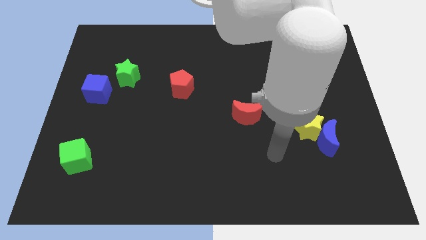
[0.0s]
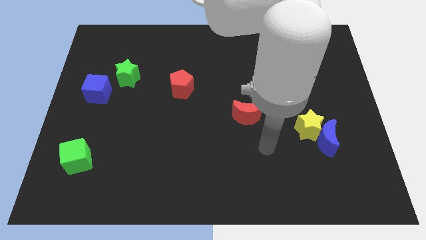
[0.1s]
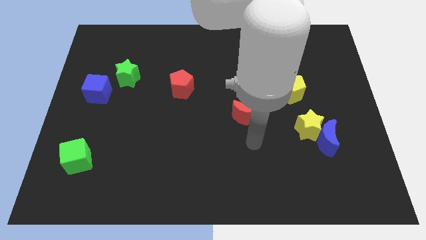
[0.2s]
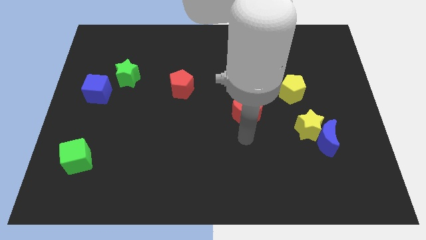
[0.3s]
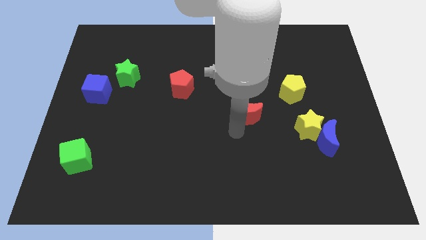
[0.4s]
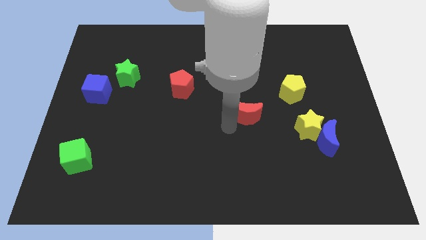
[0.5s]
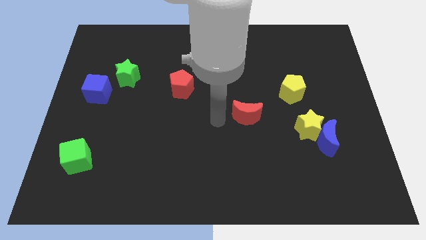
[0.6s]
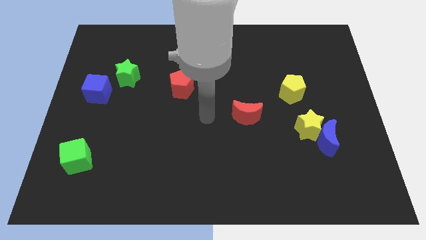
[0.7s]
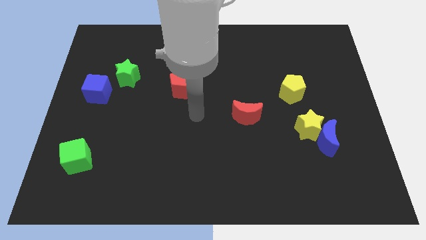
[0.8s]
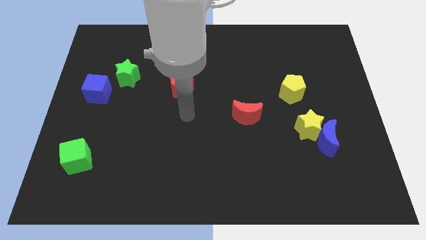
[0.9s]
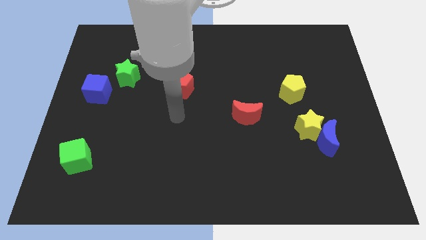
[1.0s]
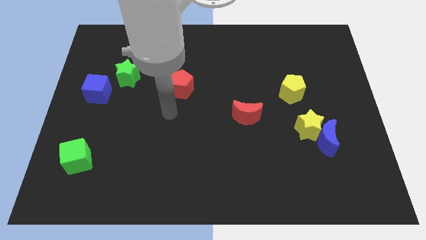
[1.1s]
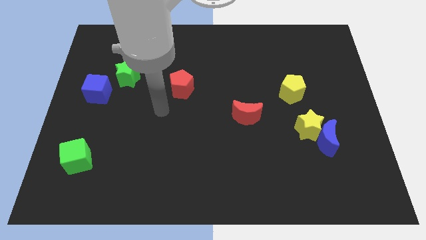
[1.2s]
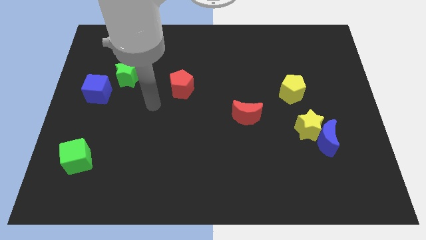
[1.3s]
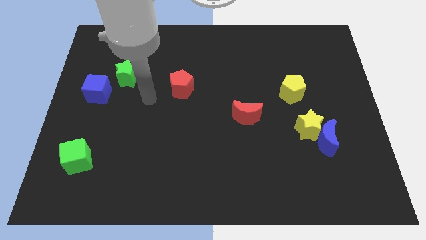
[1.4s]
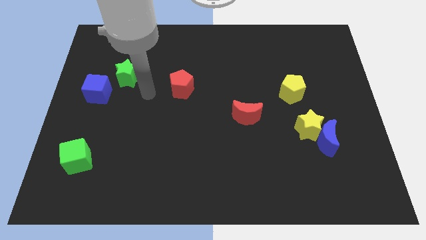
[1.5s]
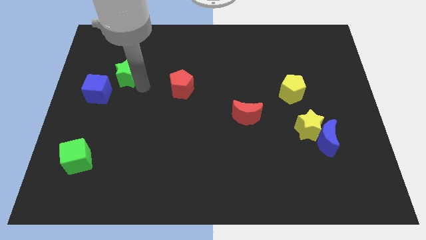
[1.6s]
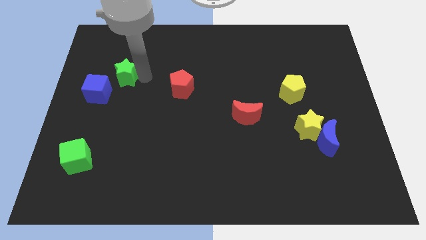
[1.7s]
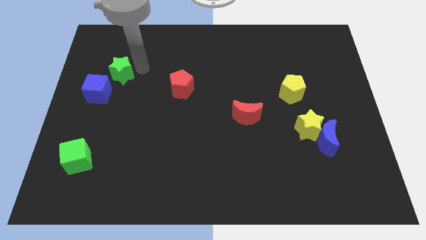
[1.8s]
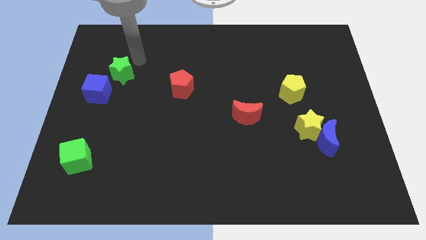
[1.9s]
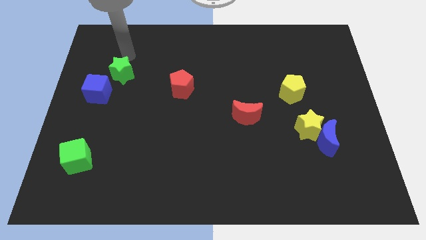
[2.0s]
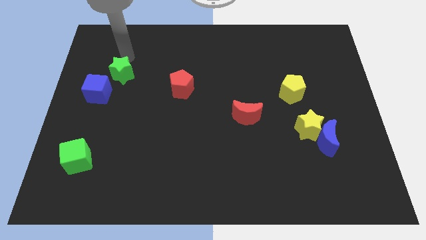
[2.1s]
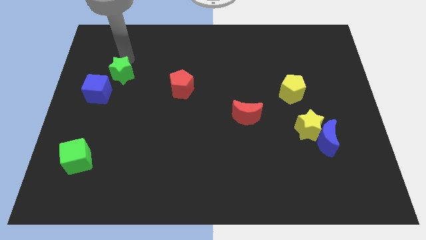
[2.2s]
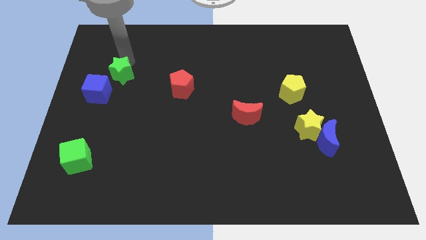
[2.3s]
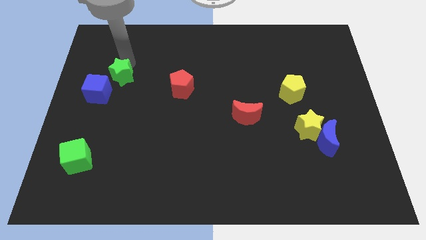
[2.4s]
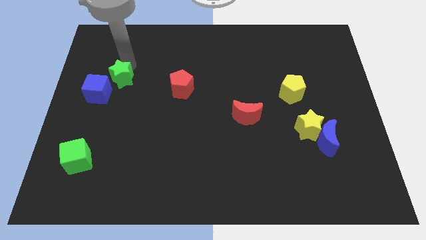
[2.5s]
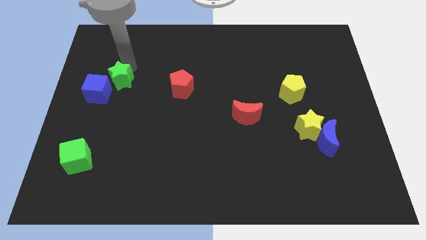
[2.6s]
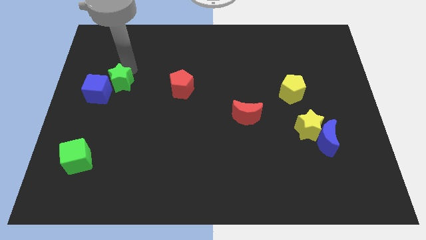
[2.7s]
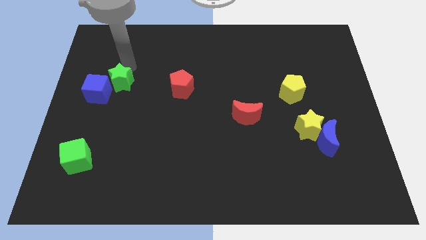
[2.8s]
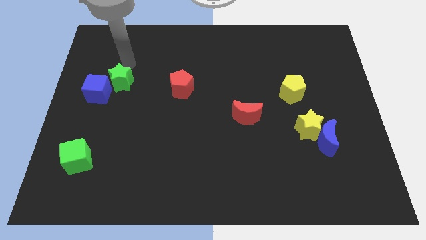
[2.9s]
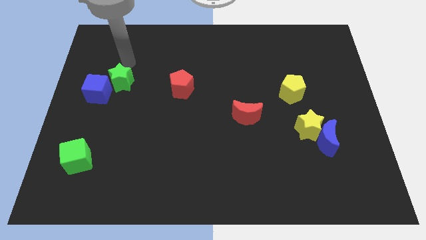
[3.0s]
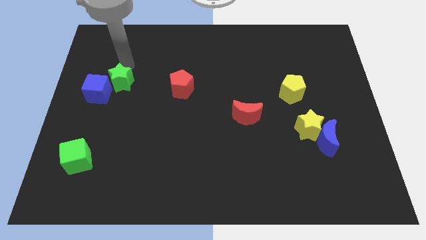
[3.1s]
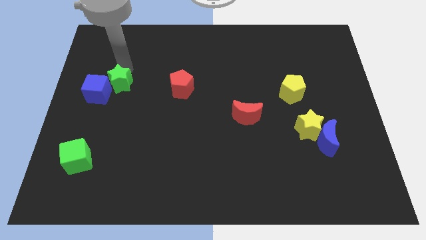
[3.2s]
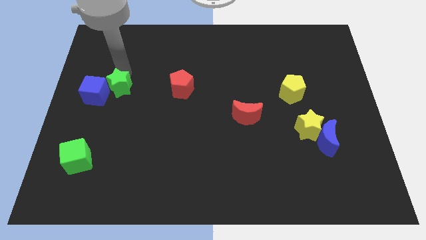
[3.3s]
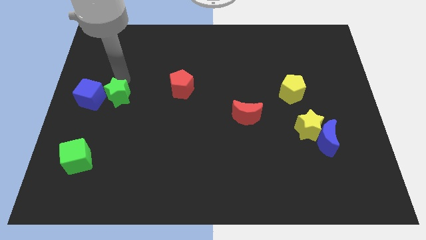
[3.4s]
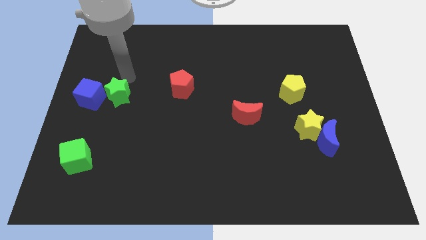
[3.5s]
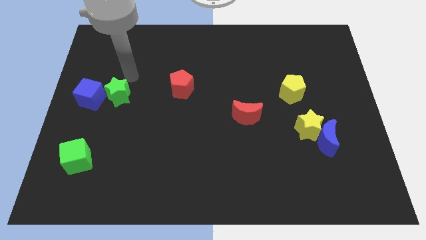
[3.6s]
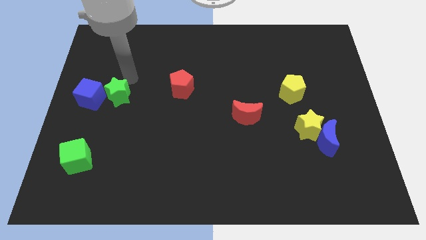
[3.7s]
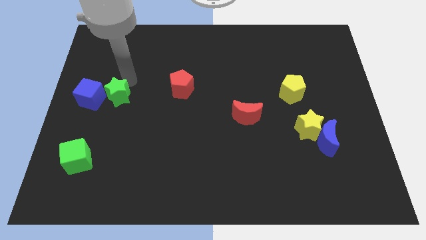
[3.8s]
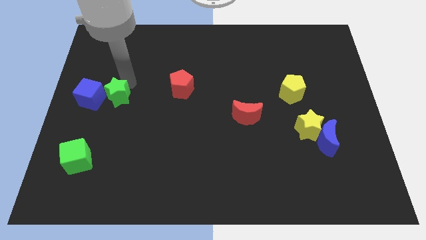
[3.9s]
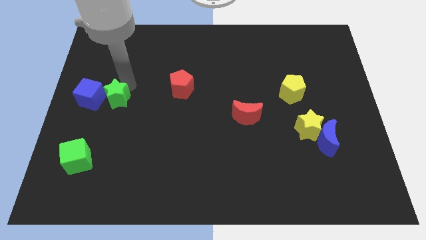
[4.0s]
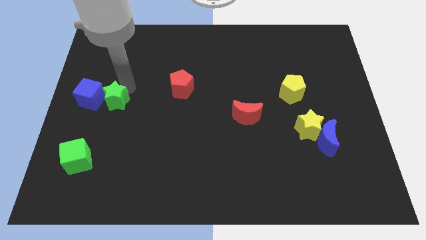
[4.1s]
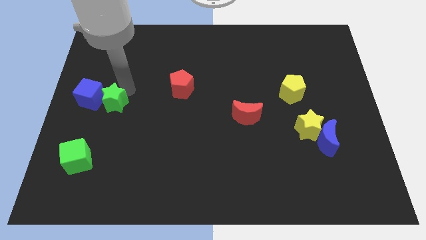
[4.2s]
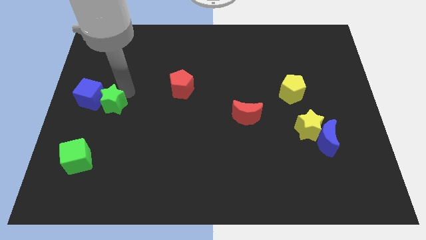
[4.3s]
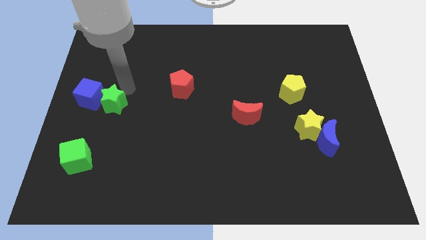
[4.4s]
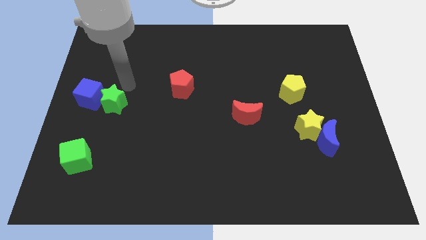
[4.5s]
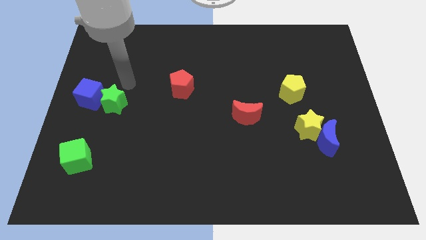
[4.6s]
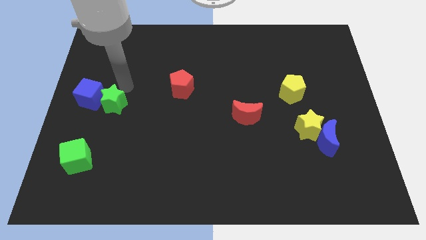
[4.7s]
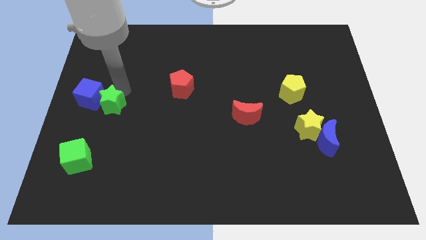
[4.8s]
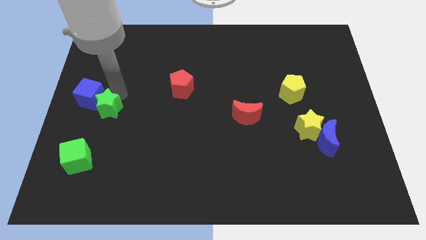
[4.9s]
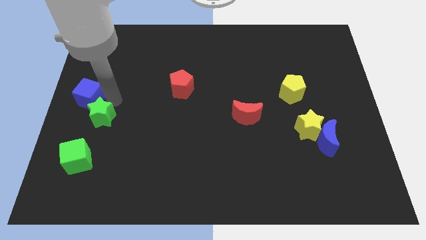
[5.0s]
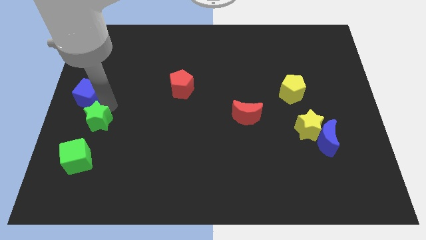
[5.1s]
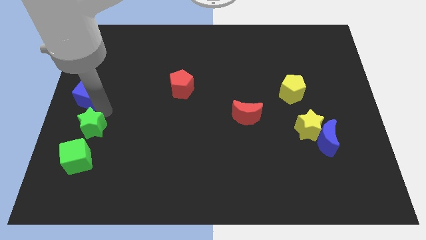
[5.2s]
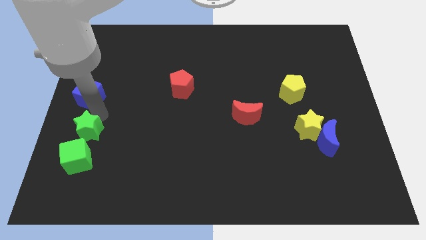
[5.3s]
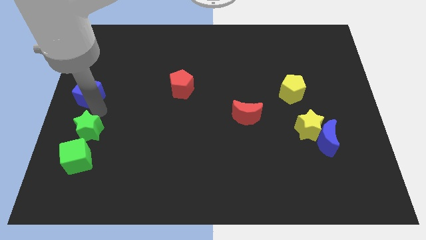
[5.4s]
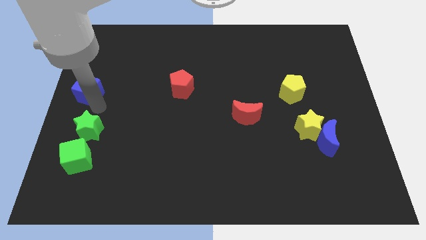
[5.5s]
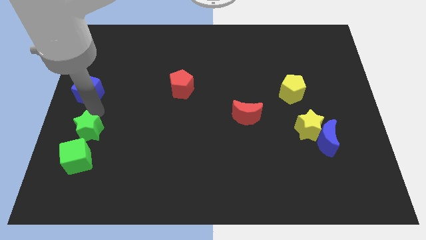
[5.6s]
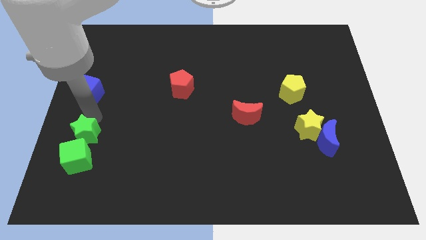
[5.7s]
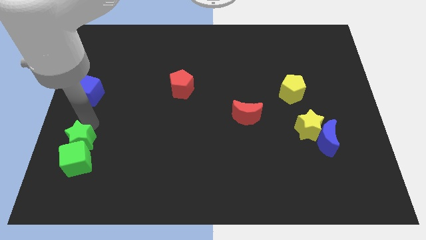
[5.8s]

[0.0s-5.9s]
push the green star next to the green cube

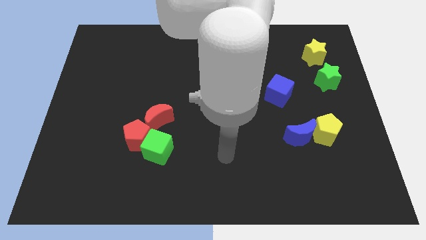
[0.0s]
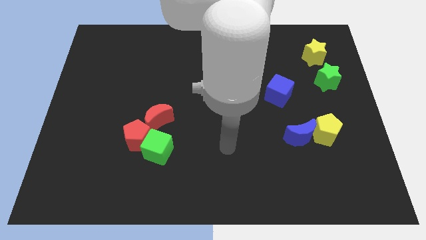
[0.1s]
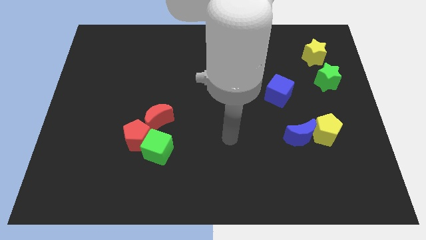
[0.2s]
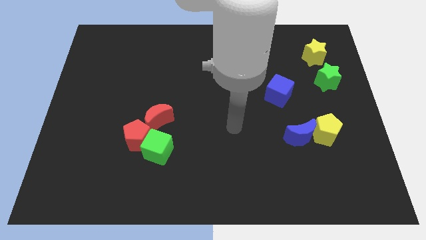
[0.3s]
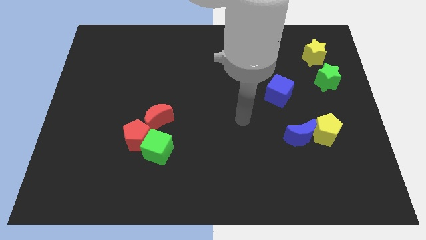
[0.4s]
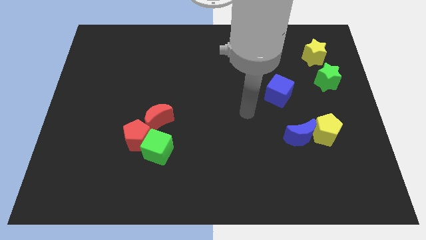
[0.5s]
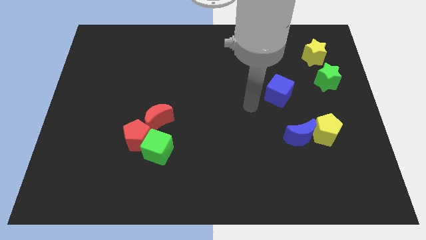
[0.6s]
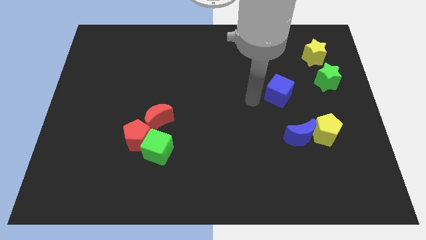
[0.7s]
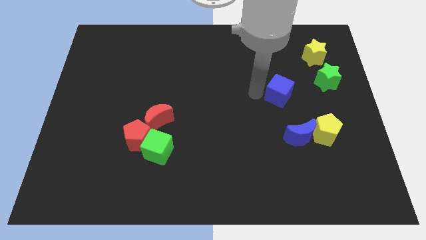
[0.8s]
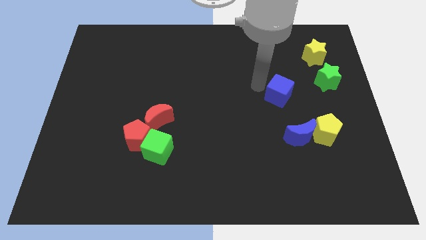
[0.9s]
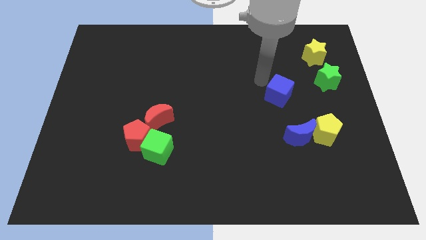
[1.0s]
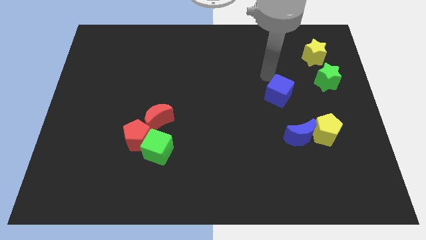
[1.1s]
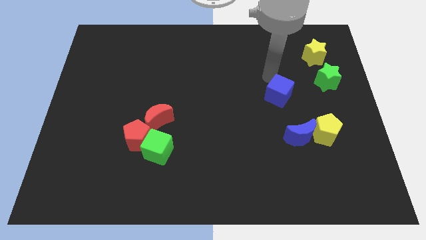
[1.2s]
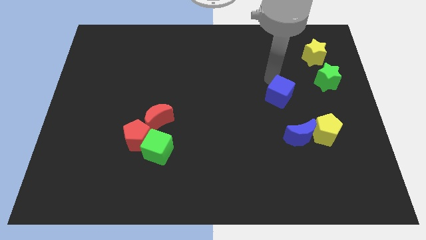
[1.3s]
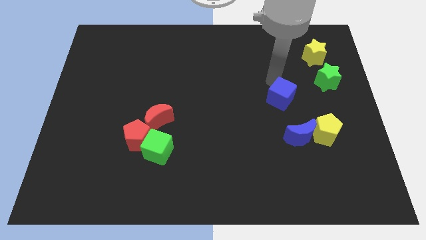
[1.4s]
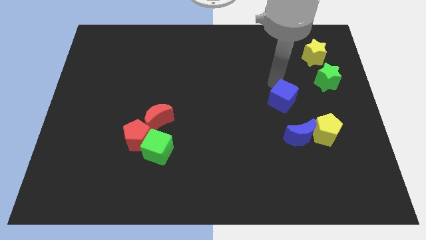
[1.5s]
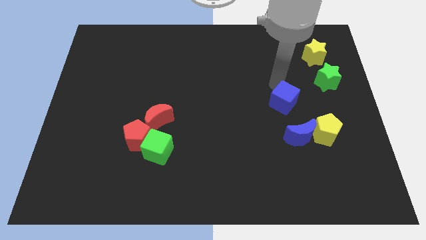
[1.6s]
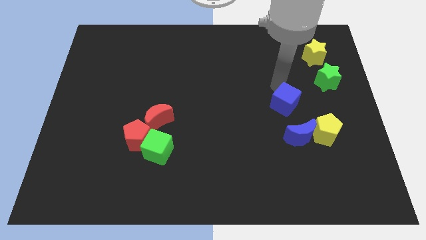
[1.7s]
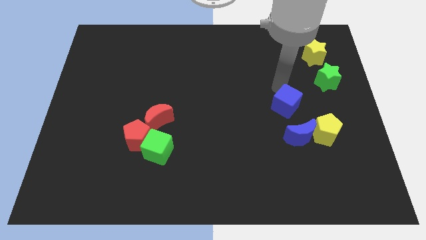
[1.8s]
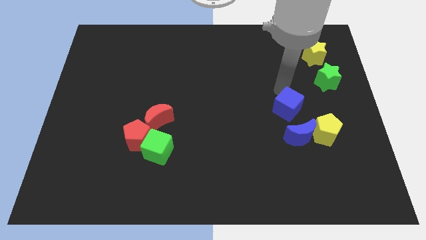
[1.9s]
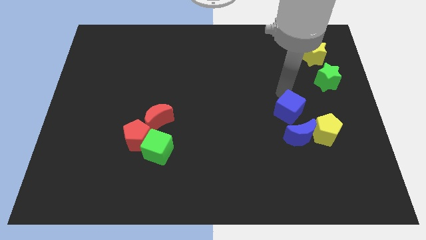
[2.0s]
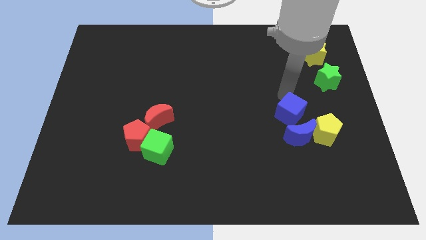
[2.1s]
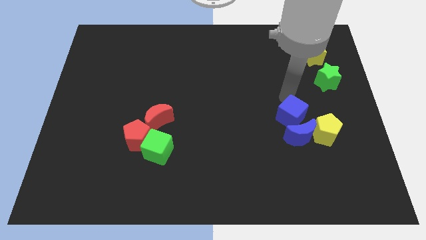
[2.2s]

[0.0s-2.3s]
push the blue cube next to the blue moon
